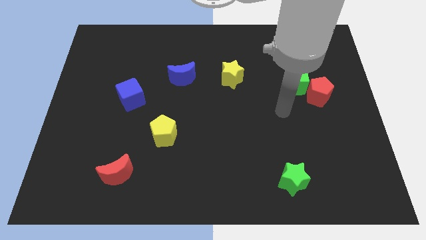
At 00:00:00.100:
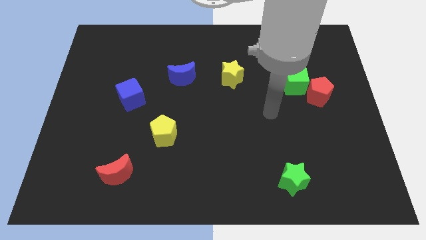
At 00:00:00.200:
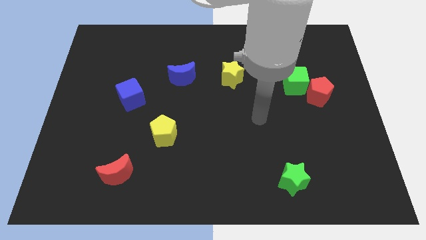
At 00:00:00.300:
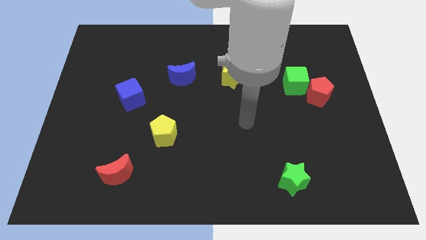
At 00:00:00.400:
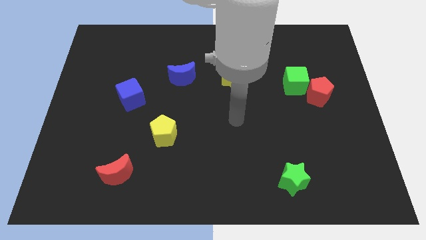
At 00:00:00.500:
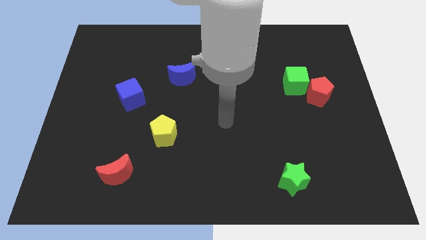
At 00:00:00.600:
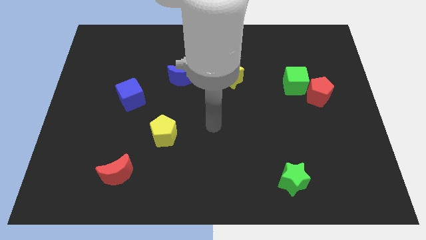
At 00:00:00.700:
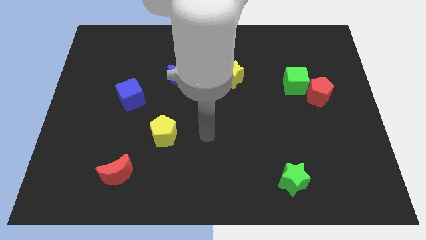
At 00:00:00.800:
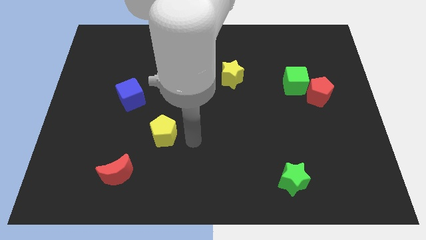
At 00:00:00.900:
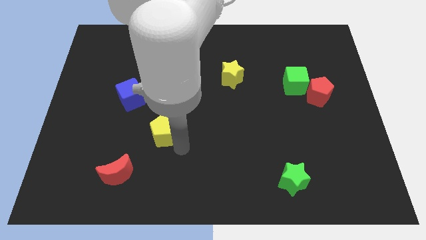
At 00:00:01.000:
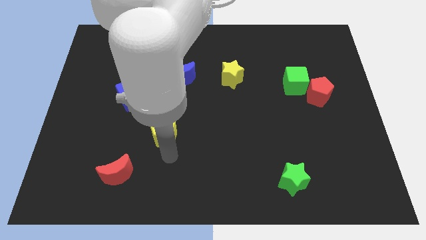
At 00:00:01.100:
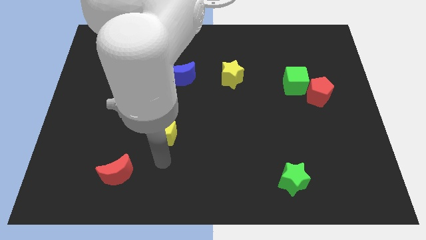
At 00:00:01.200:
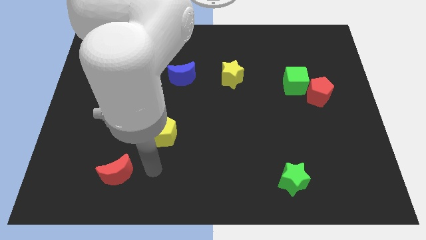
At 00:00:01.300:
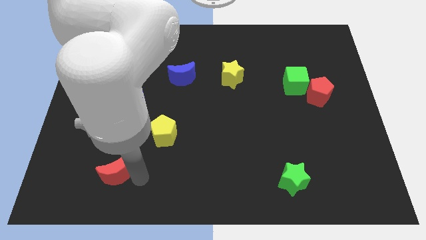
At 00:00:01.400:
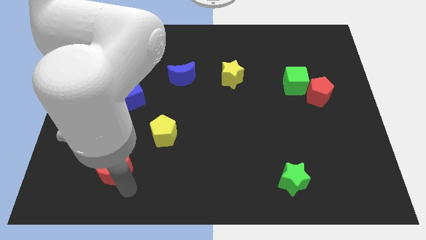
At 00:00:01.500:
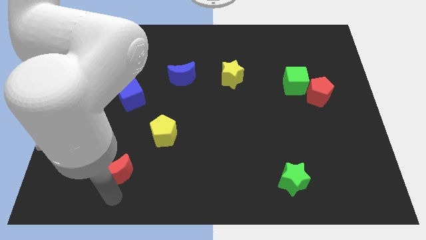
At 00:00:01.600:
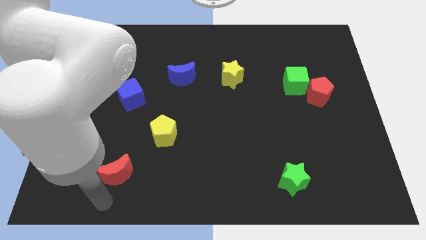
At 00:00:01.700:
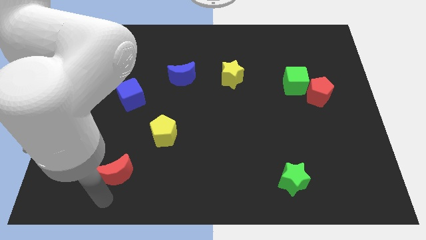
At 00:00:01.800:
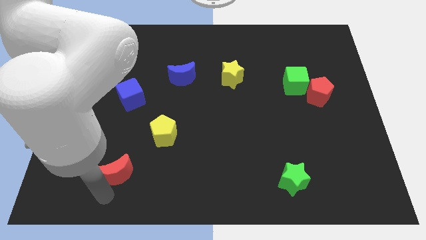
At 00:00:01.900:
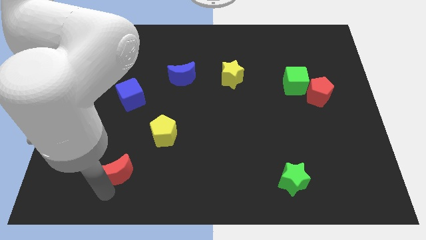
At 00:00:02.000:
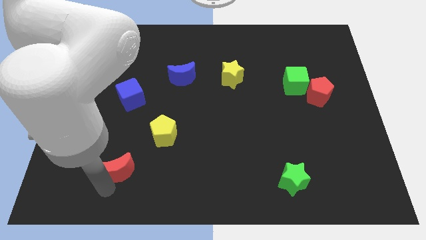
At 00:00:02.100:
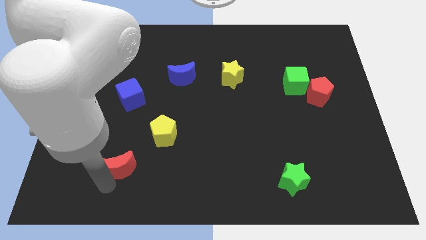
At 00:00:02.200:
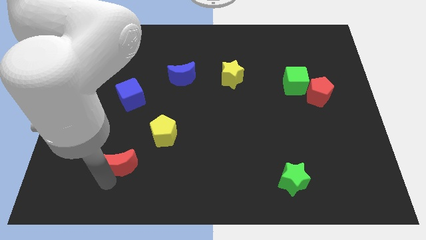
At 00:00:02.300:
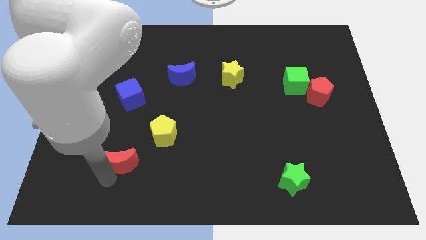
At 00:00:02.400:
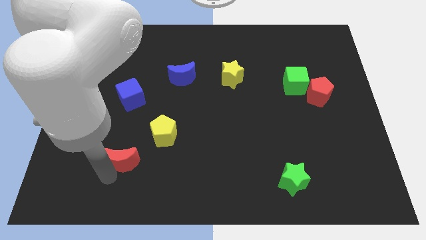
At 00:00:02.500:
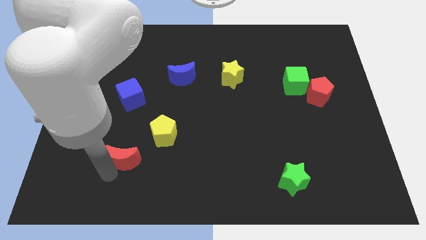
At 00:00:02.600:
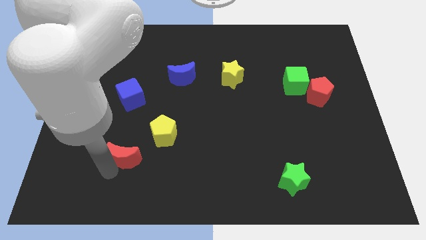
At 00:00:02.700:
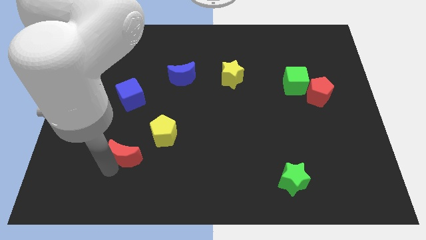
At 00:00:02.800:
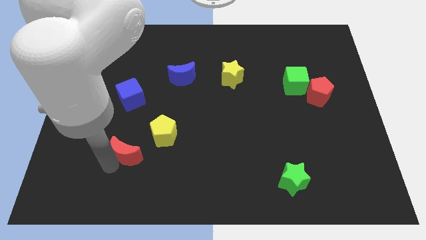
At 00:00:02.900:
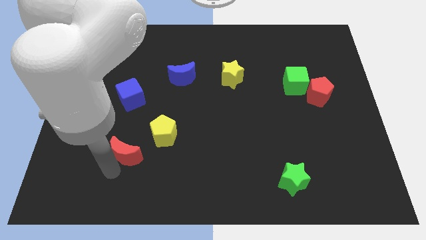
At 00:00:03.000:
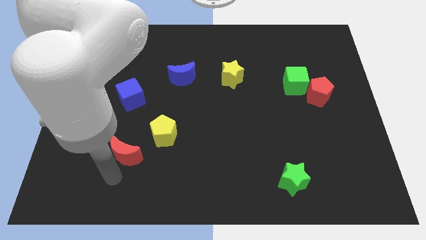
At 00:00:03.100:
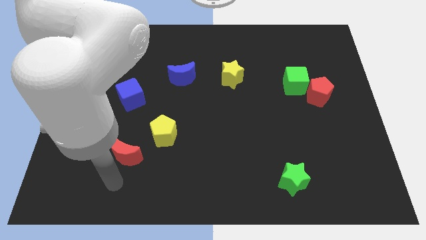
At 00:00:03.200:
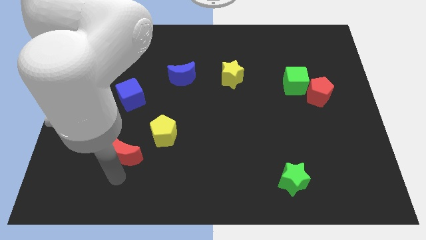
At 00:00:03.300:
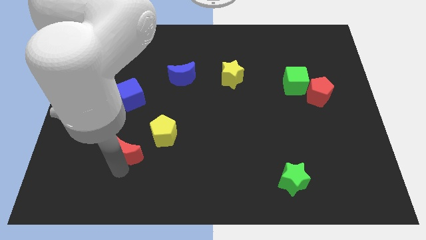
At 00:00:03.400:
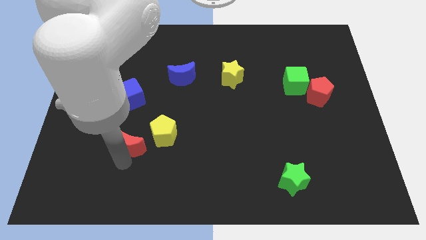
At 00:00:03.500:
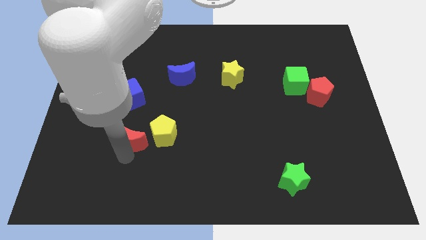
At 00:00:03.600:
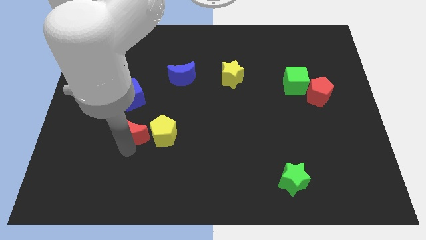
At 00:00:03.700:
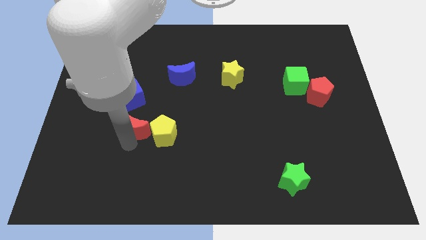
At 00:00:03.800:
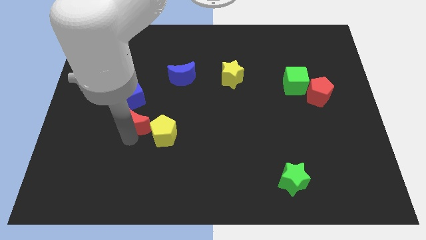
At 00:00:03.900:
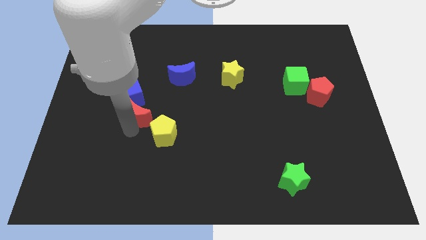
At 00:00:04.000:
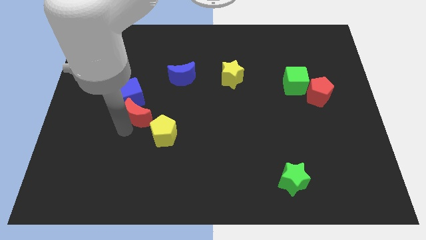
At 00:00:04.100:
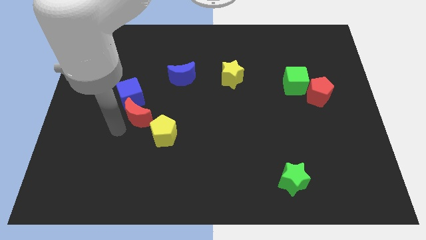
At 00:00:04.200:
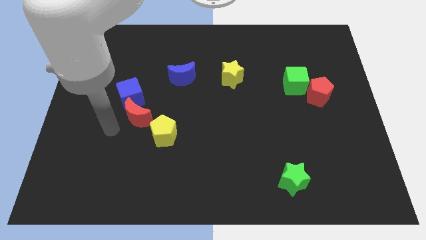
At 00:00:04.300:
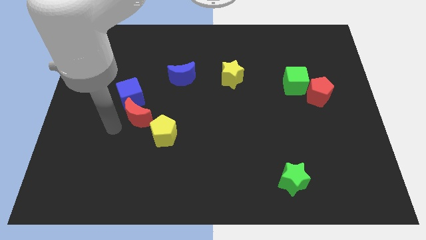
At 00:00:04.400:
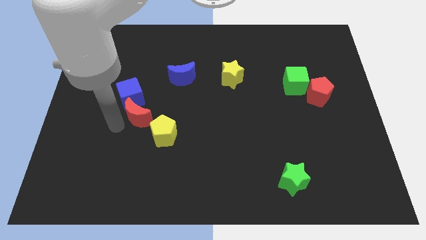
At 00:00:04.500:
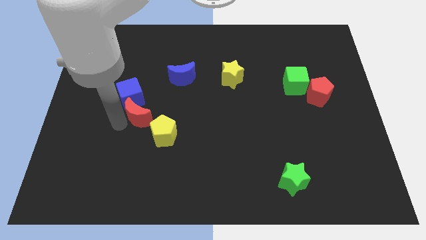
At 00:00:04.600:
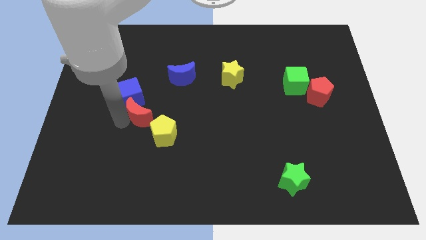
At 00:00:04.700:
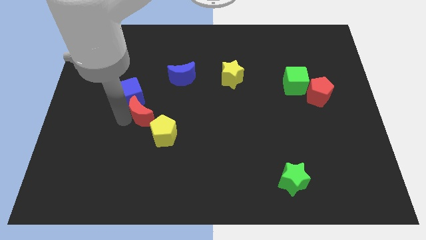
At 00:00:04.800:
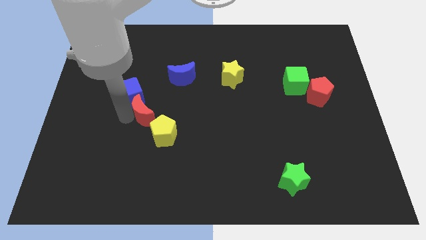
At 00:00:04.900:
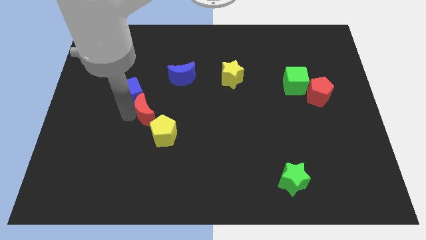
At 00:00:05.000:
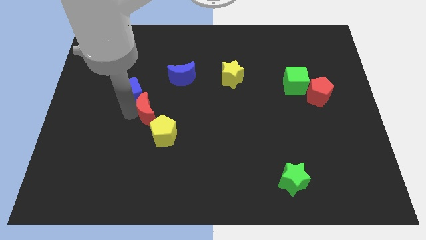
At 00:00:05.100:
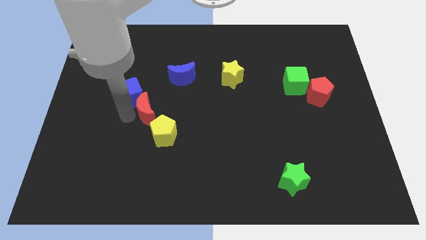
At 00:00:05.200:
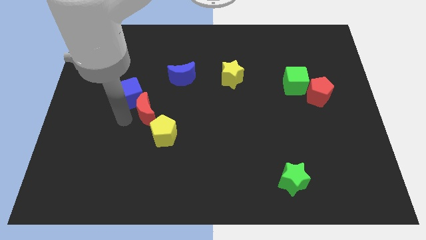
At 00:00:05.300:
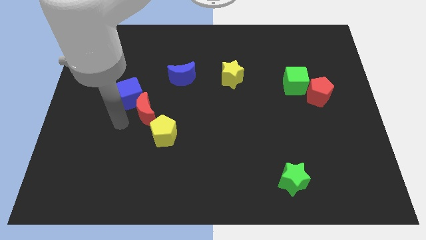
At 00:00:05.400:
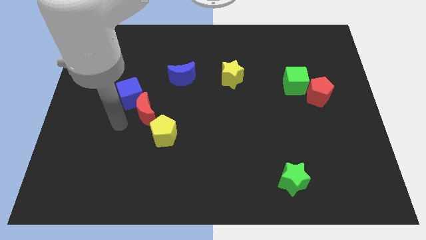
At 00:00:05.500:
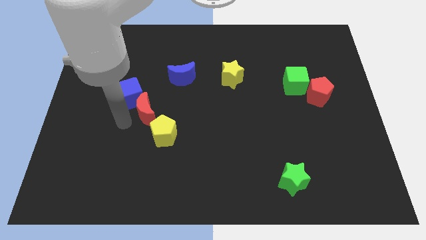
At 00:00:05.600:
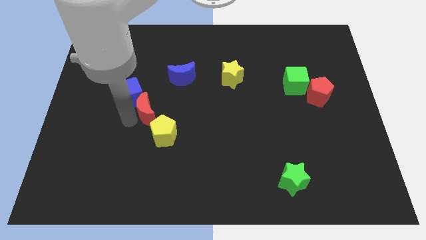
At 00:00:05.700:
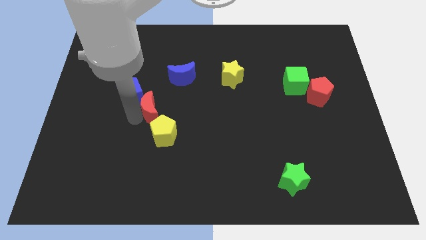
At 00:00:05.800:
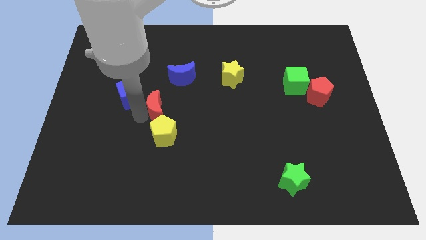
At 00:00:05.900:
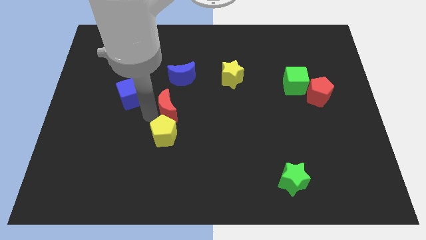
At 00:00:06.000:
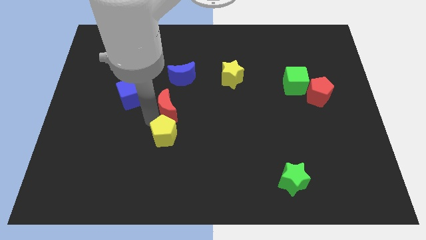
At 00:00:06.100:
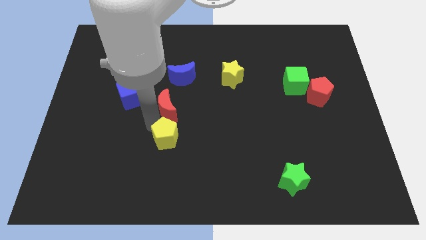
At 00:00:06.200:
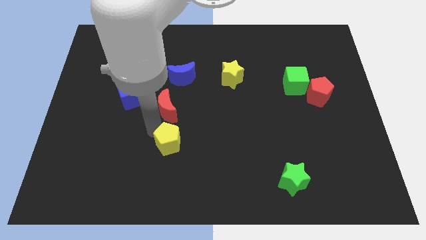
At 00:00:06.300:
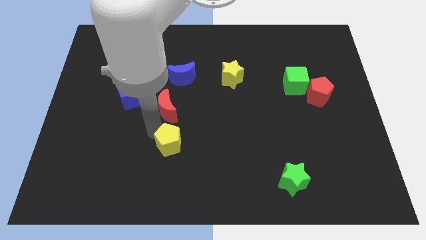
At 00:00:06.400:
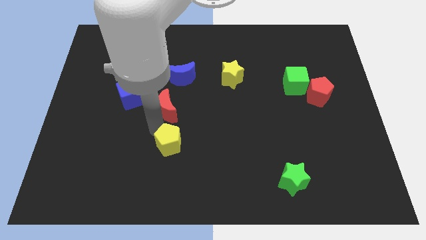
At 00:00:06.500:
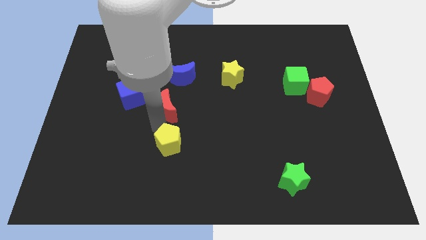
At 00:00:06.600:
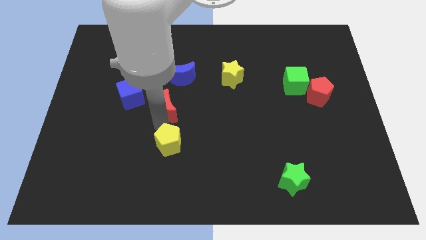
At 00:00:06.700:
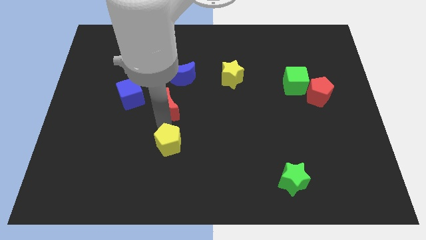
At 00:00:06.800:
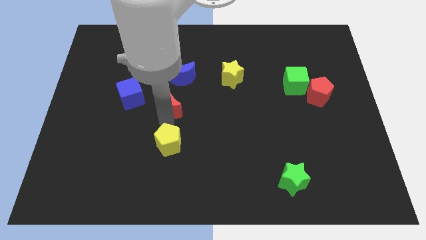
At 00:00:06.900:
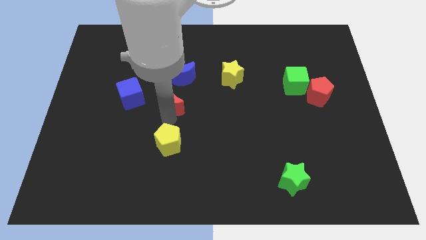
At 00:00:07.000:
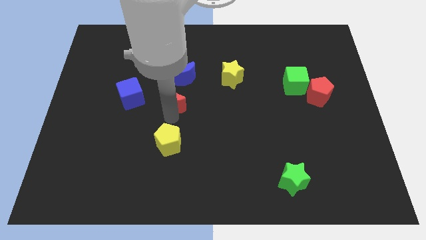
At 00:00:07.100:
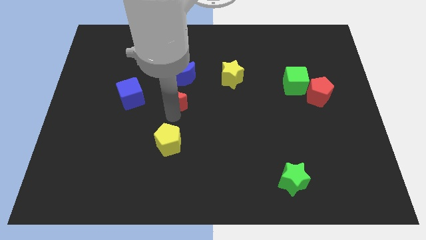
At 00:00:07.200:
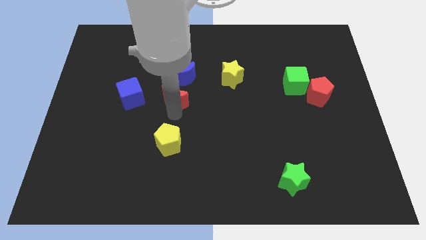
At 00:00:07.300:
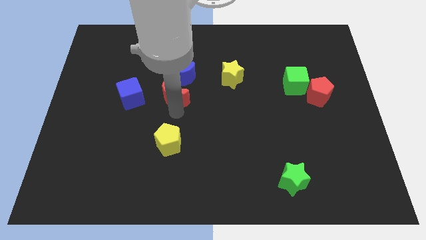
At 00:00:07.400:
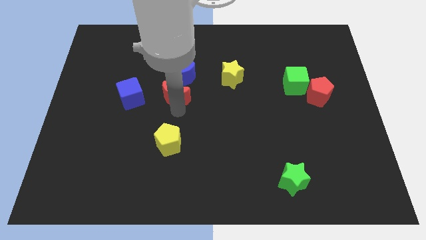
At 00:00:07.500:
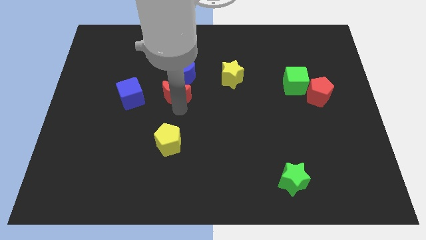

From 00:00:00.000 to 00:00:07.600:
move the red moon close to the blue moon
